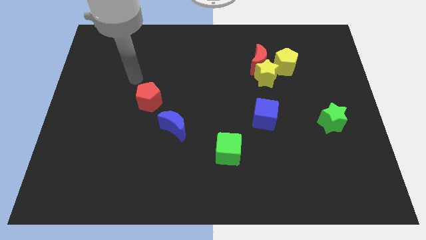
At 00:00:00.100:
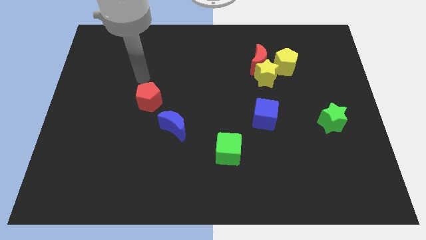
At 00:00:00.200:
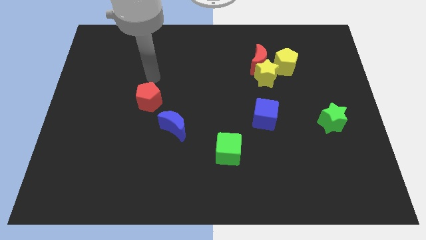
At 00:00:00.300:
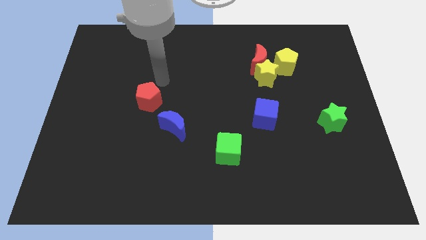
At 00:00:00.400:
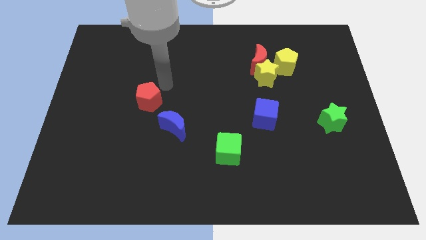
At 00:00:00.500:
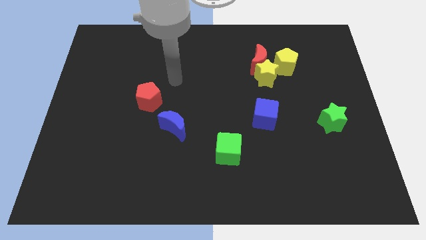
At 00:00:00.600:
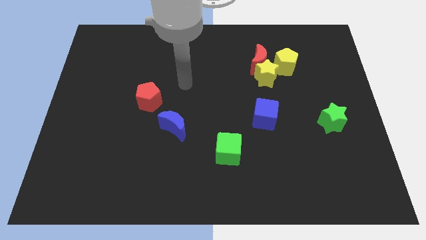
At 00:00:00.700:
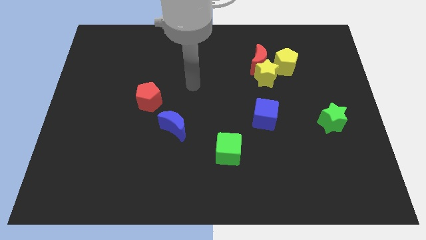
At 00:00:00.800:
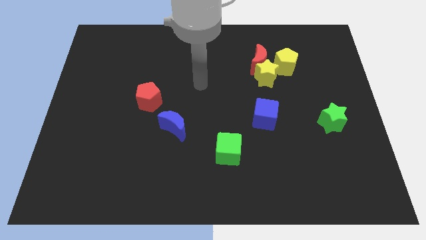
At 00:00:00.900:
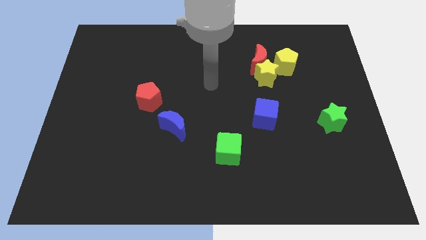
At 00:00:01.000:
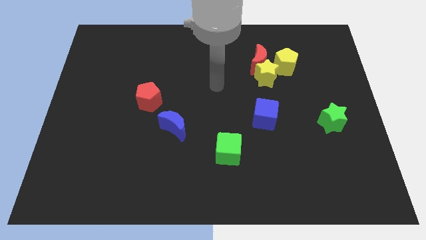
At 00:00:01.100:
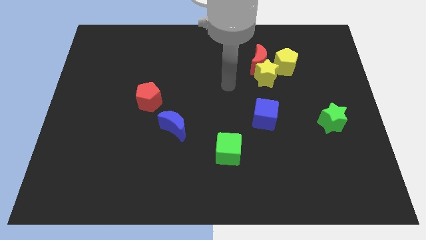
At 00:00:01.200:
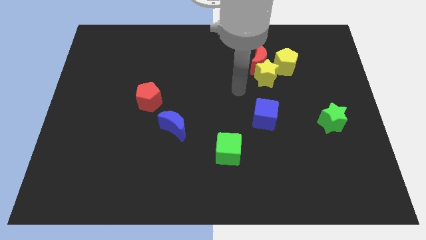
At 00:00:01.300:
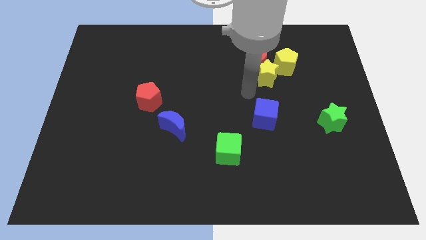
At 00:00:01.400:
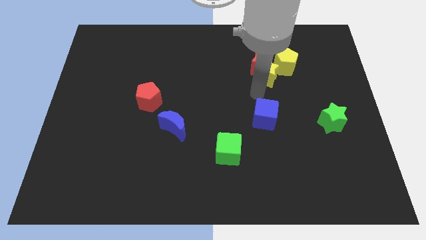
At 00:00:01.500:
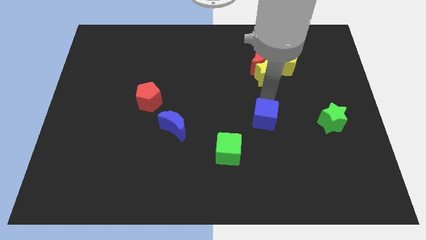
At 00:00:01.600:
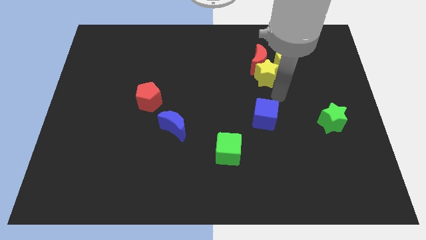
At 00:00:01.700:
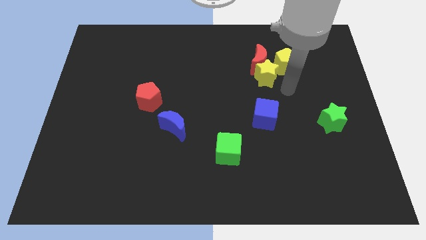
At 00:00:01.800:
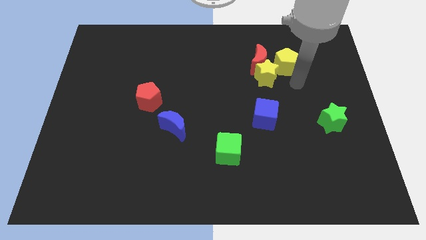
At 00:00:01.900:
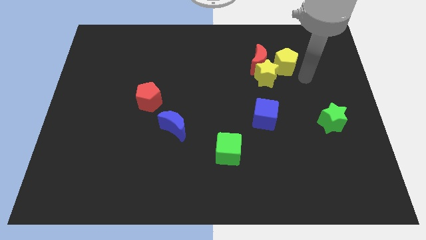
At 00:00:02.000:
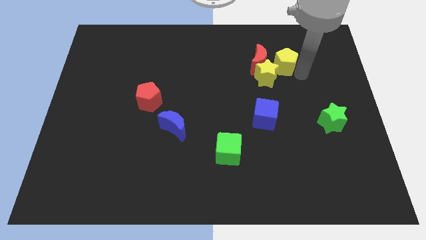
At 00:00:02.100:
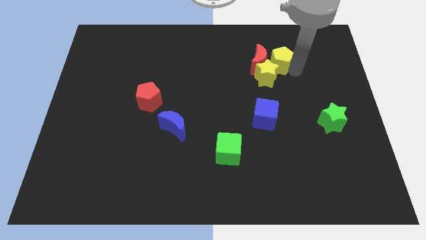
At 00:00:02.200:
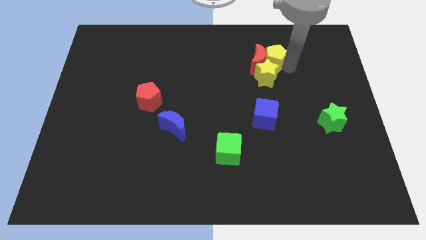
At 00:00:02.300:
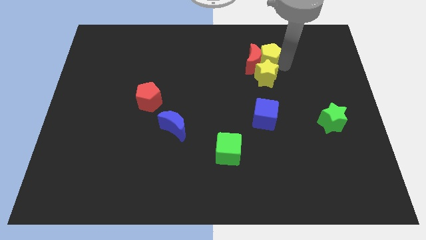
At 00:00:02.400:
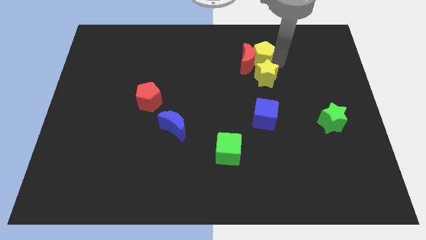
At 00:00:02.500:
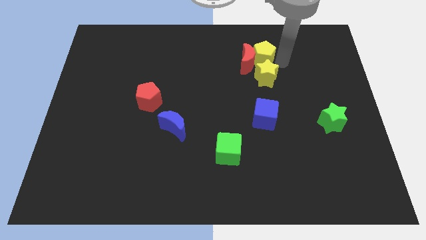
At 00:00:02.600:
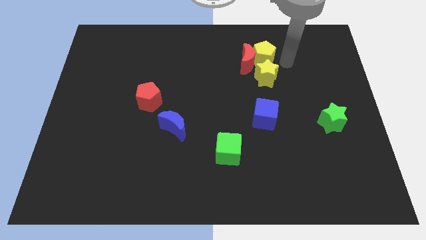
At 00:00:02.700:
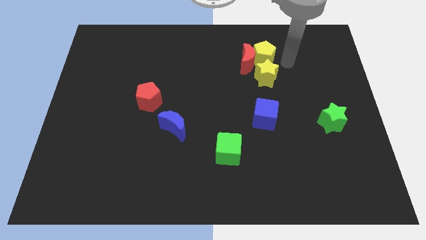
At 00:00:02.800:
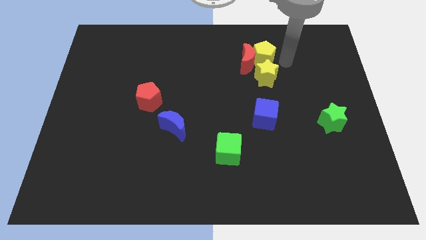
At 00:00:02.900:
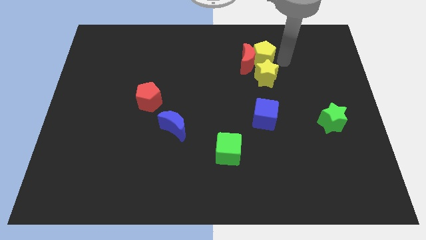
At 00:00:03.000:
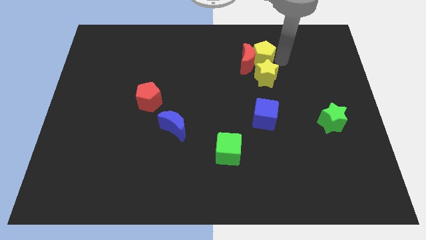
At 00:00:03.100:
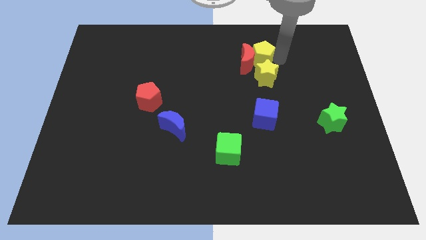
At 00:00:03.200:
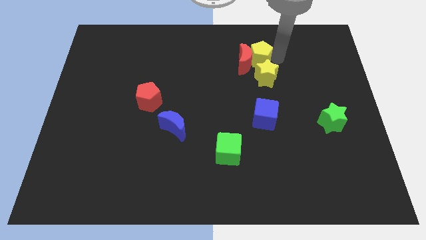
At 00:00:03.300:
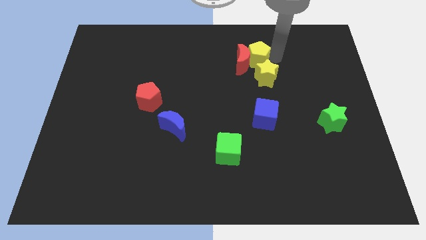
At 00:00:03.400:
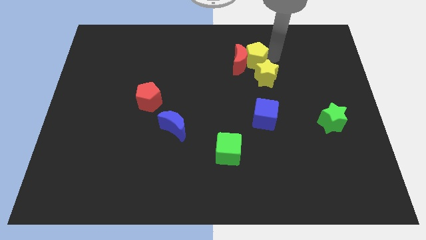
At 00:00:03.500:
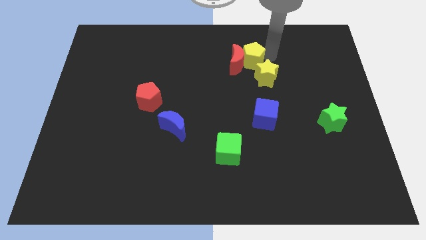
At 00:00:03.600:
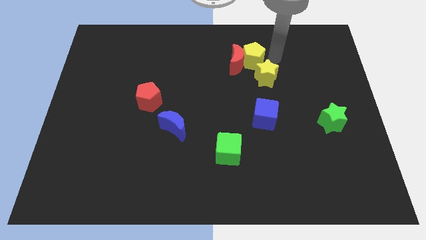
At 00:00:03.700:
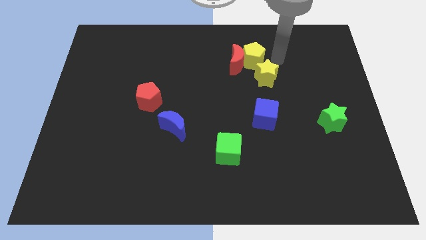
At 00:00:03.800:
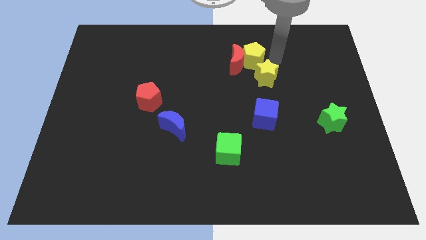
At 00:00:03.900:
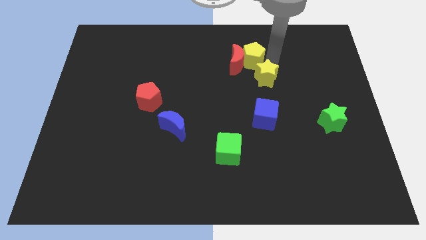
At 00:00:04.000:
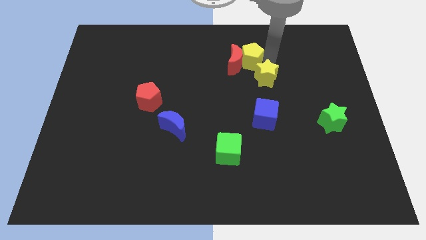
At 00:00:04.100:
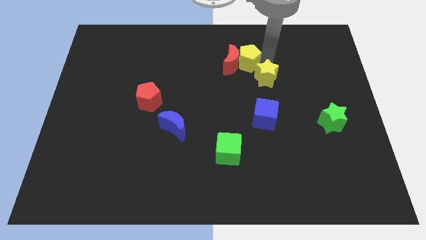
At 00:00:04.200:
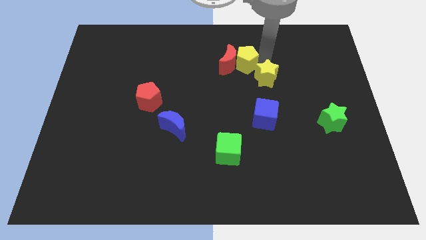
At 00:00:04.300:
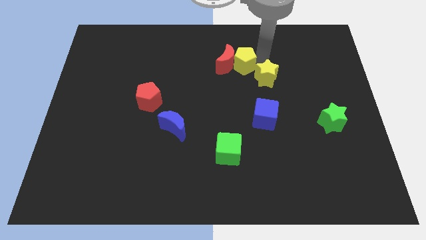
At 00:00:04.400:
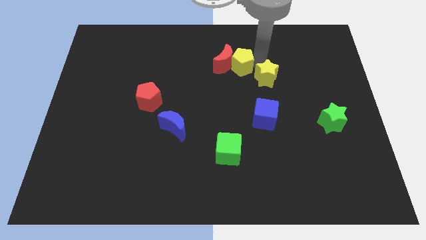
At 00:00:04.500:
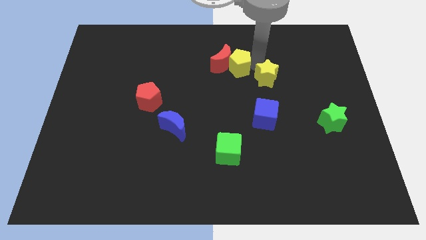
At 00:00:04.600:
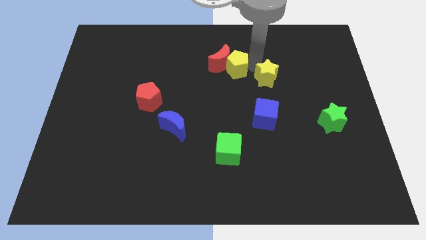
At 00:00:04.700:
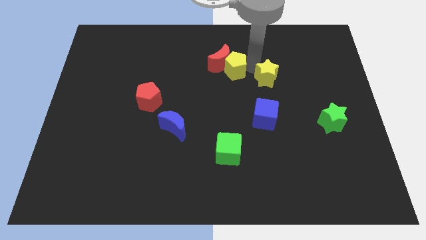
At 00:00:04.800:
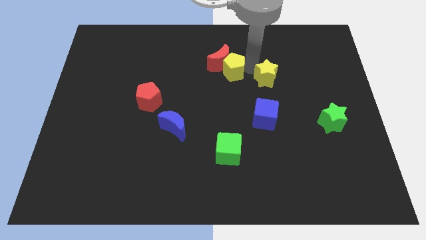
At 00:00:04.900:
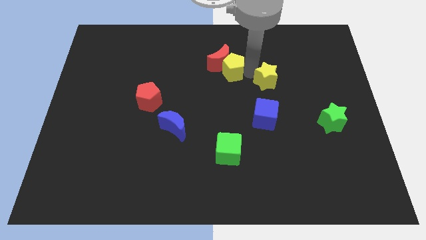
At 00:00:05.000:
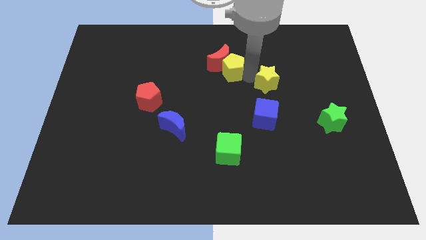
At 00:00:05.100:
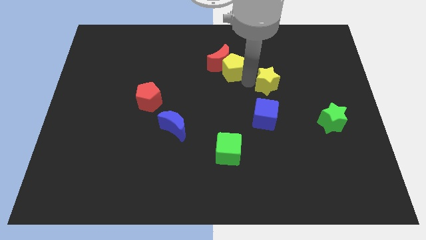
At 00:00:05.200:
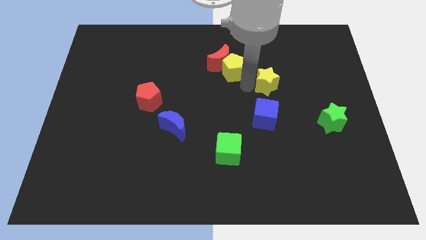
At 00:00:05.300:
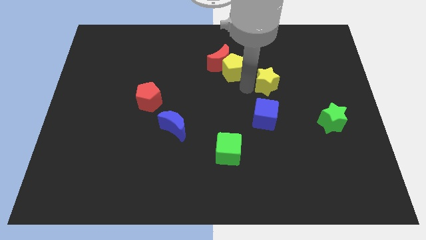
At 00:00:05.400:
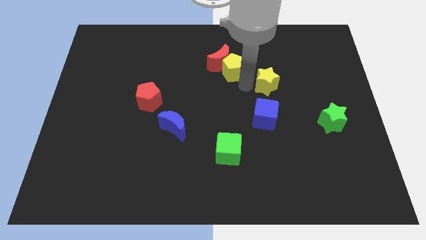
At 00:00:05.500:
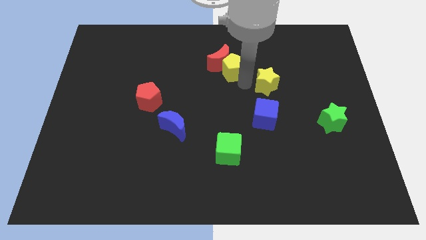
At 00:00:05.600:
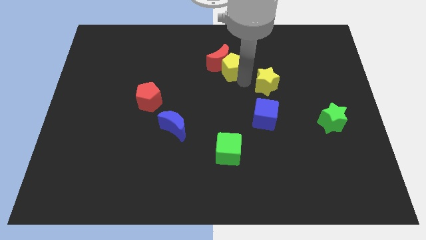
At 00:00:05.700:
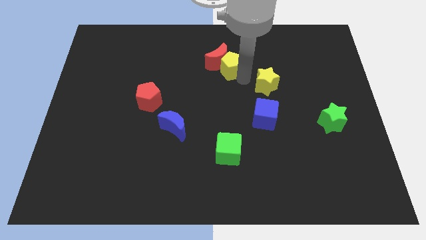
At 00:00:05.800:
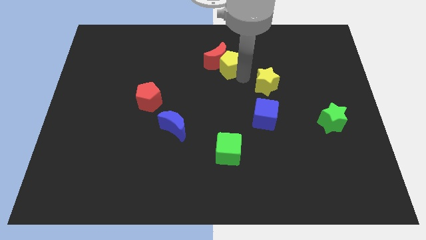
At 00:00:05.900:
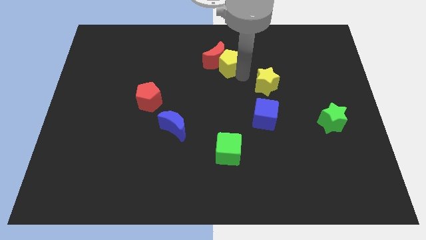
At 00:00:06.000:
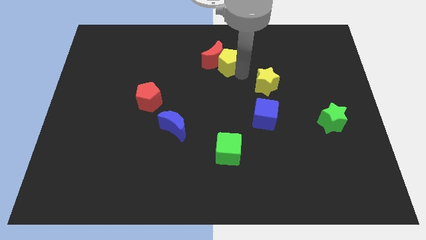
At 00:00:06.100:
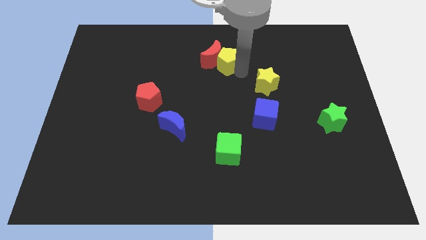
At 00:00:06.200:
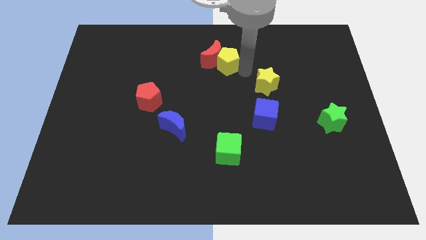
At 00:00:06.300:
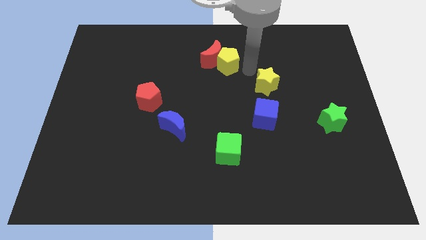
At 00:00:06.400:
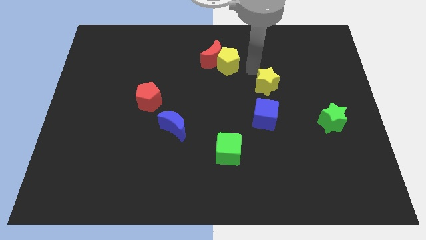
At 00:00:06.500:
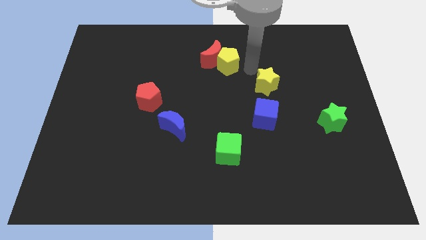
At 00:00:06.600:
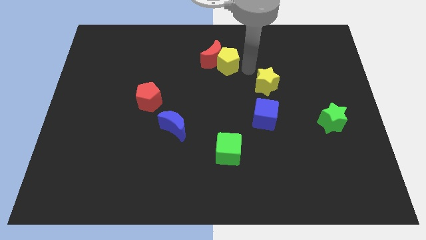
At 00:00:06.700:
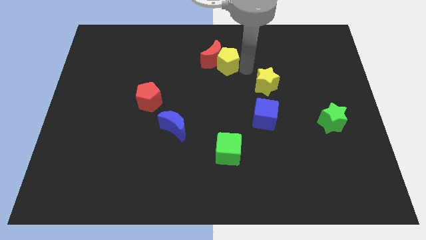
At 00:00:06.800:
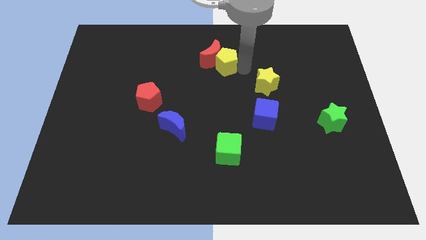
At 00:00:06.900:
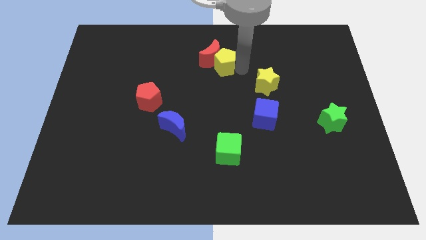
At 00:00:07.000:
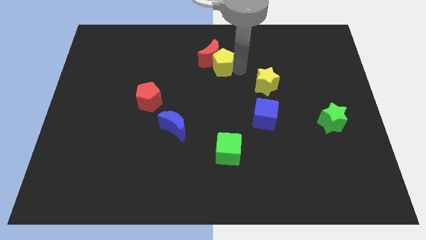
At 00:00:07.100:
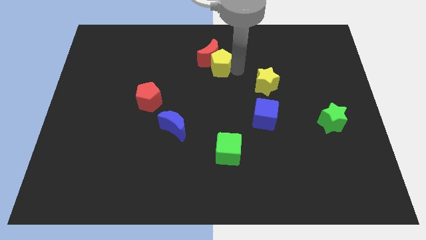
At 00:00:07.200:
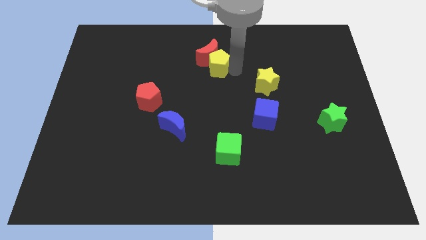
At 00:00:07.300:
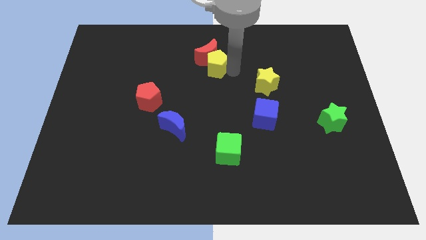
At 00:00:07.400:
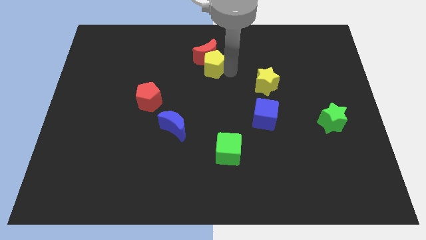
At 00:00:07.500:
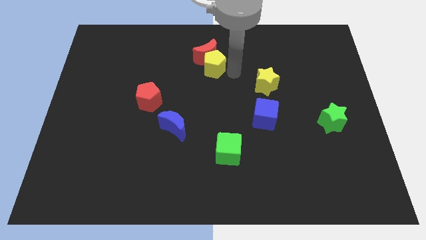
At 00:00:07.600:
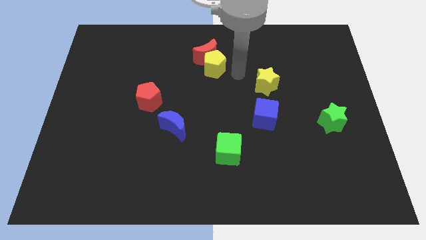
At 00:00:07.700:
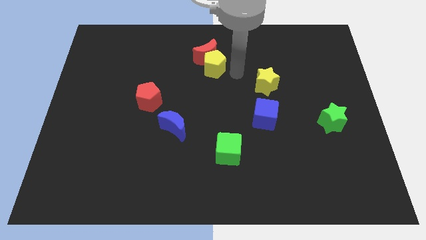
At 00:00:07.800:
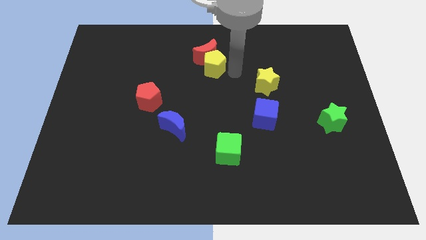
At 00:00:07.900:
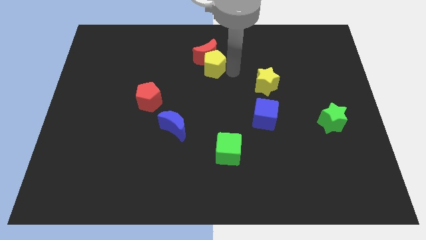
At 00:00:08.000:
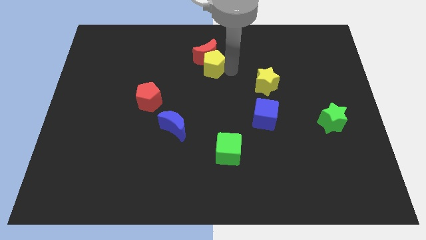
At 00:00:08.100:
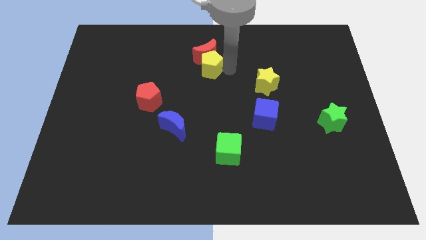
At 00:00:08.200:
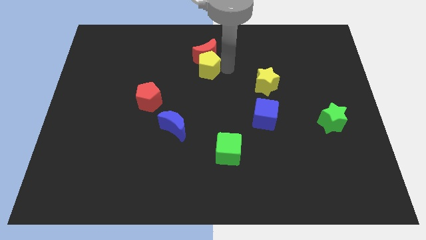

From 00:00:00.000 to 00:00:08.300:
move the yellow pentagon to the left

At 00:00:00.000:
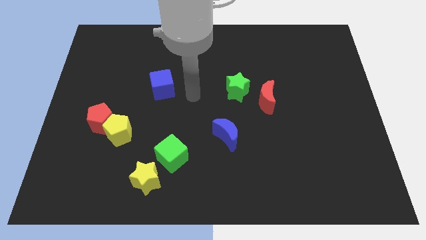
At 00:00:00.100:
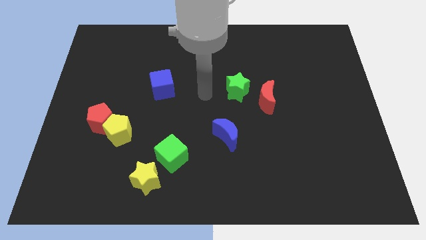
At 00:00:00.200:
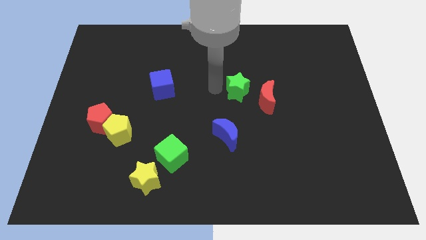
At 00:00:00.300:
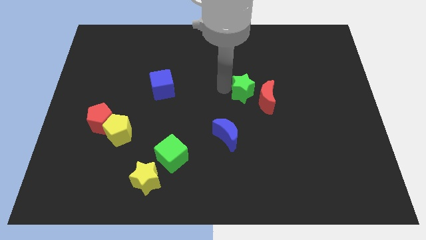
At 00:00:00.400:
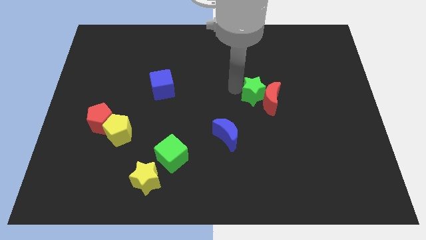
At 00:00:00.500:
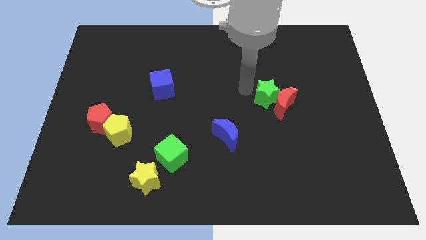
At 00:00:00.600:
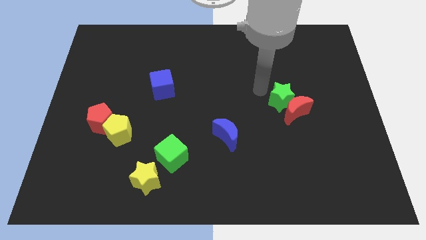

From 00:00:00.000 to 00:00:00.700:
push the red moon slightly down and to the right
